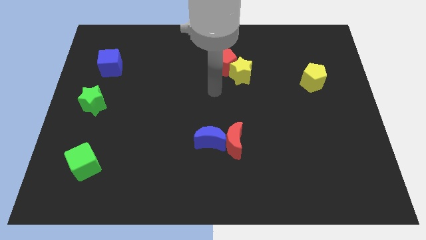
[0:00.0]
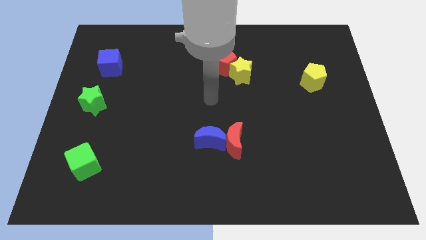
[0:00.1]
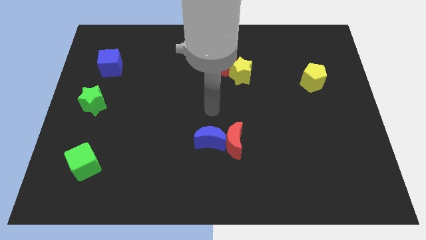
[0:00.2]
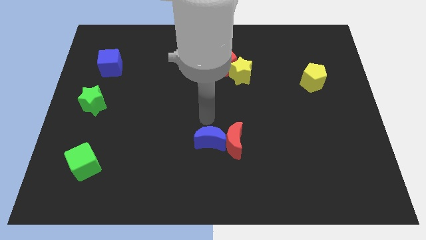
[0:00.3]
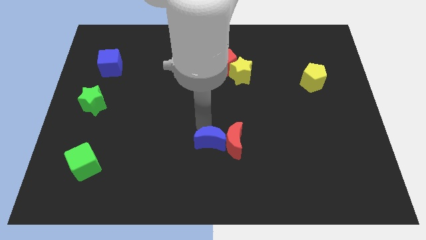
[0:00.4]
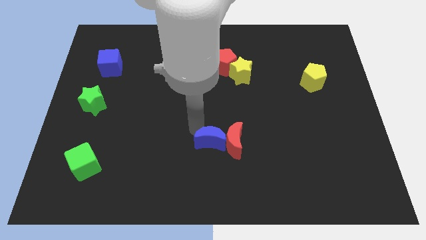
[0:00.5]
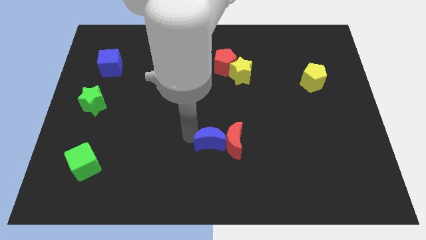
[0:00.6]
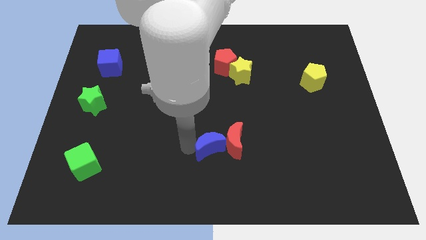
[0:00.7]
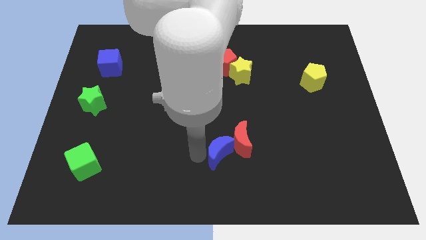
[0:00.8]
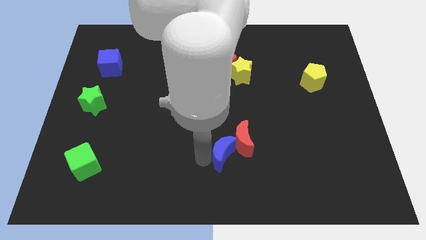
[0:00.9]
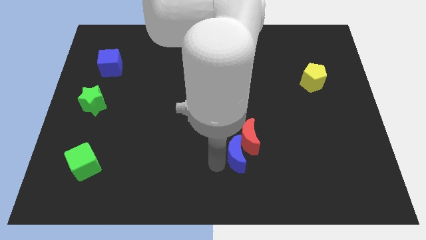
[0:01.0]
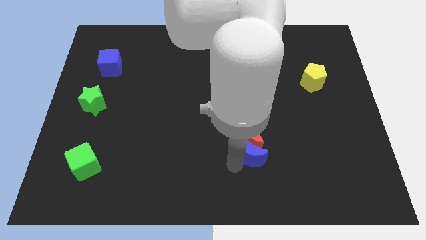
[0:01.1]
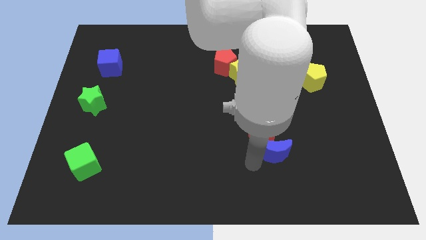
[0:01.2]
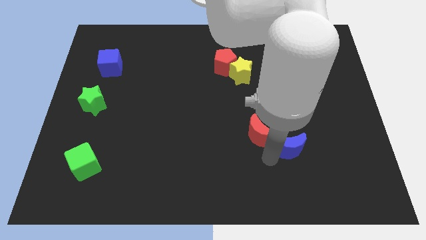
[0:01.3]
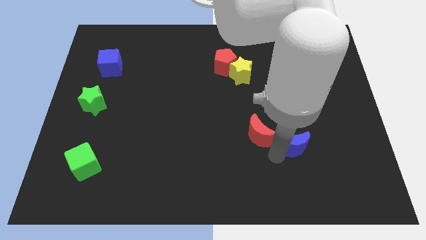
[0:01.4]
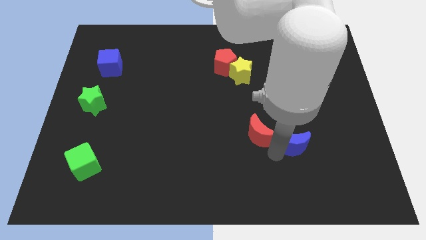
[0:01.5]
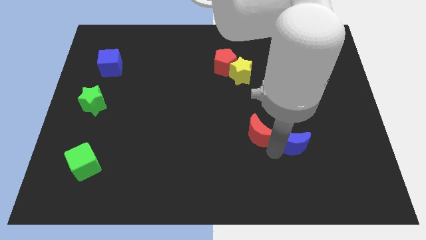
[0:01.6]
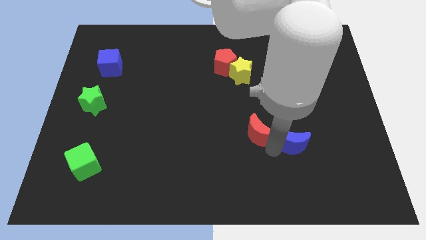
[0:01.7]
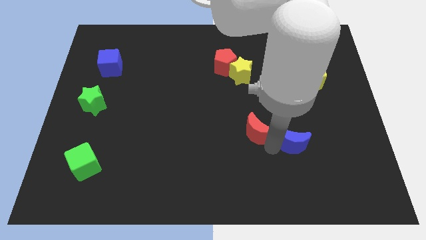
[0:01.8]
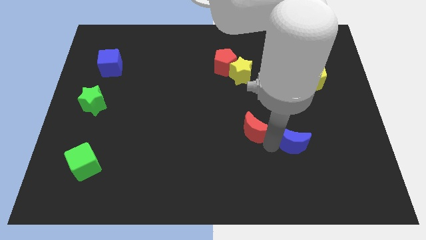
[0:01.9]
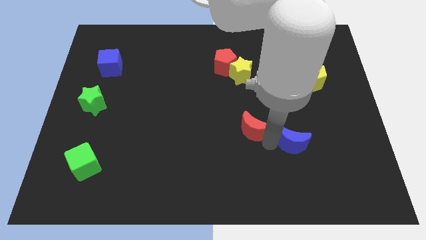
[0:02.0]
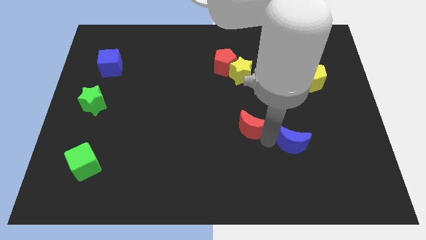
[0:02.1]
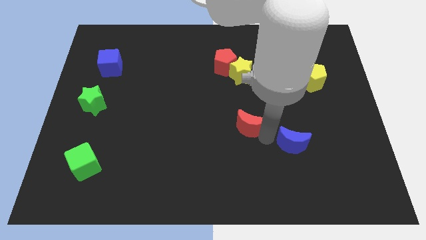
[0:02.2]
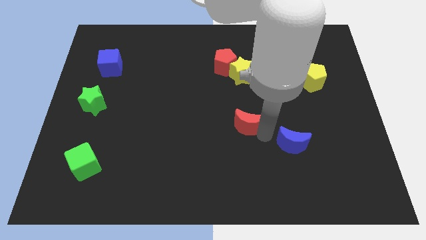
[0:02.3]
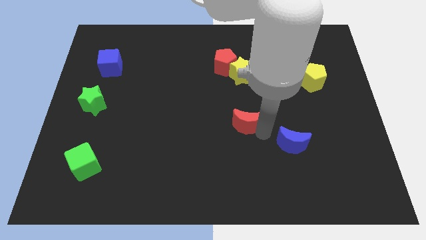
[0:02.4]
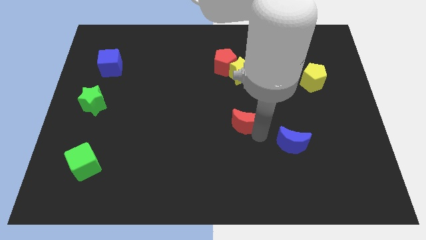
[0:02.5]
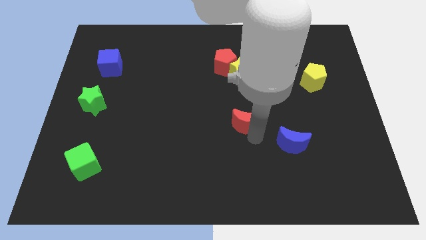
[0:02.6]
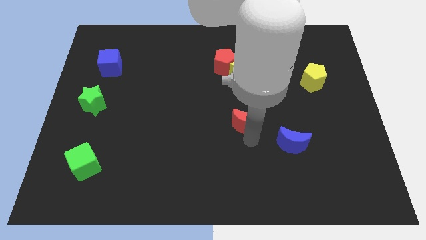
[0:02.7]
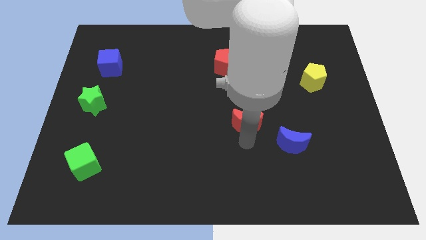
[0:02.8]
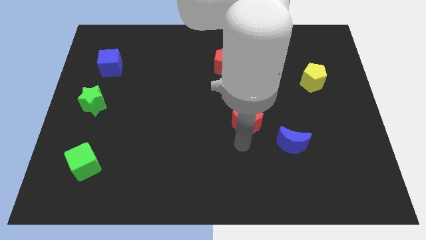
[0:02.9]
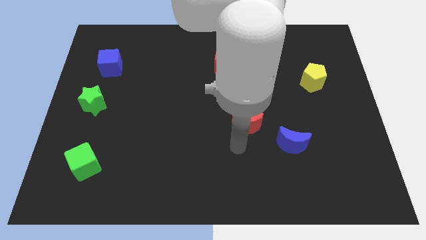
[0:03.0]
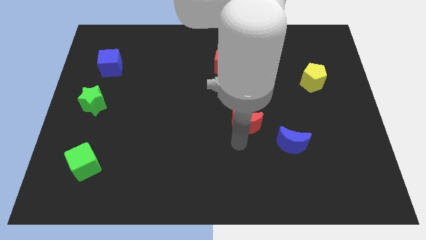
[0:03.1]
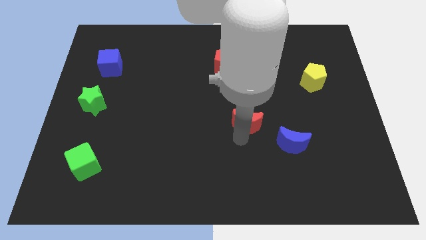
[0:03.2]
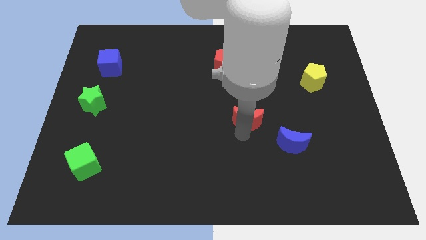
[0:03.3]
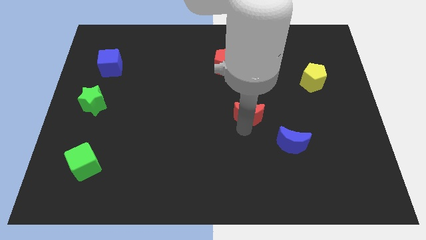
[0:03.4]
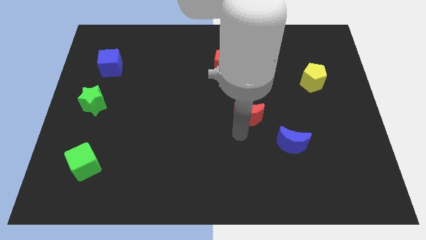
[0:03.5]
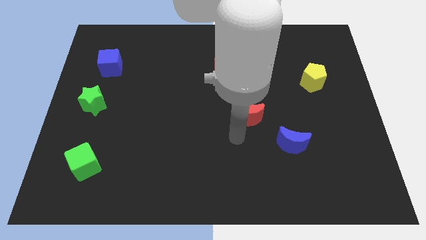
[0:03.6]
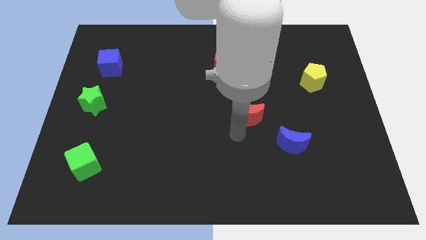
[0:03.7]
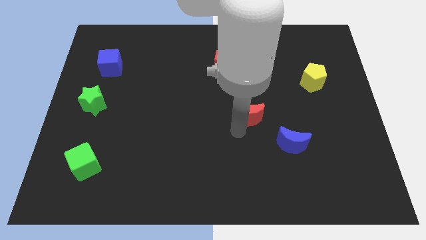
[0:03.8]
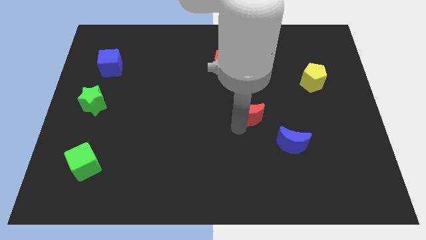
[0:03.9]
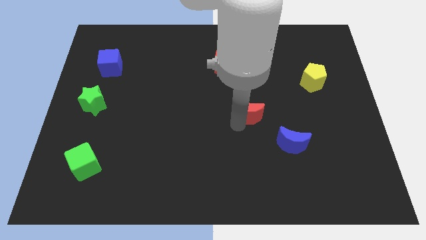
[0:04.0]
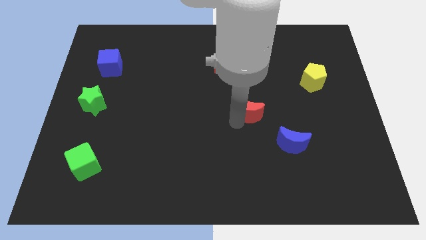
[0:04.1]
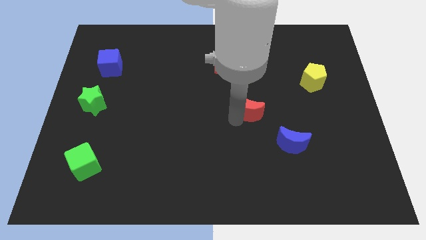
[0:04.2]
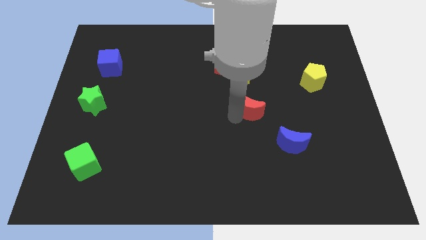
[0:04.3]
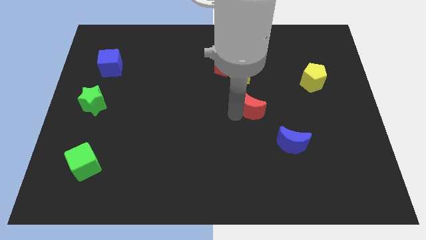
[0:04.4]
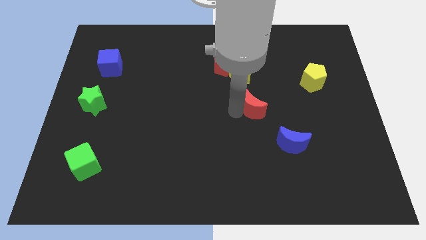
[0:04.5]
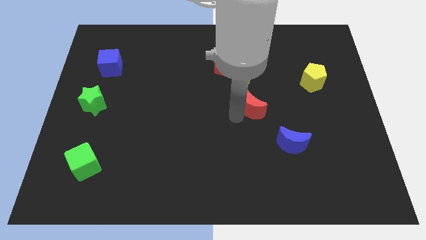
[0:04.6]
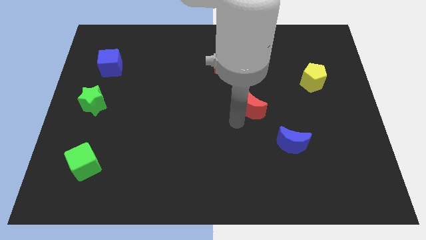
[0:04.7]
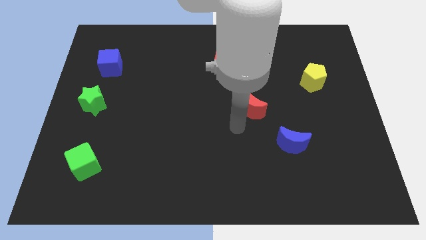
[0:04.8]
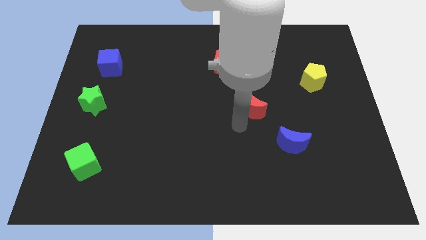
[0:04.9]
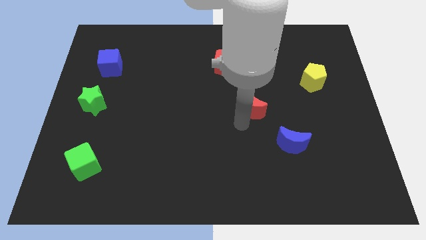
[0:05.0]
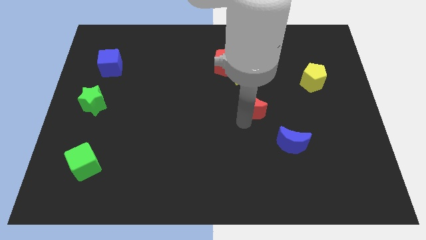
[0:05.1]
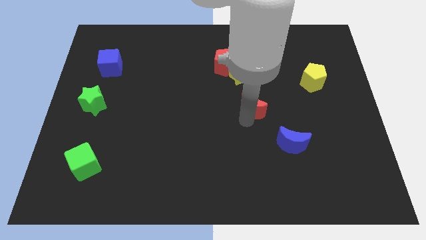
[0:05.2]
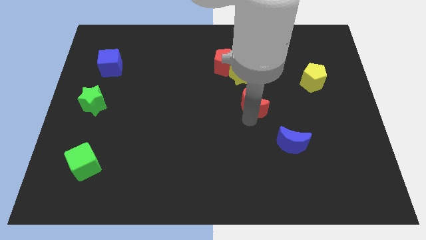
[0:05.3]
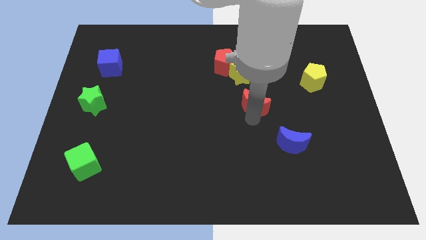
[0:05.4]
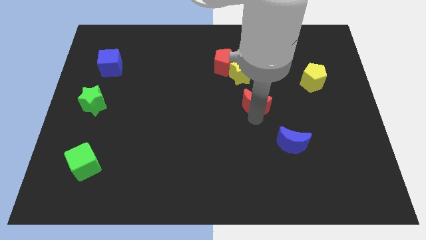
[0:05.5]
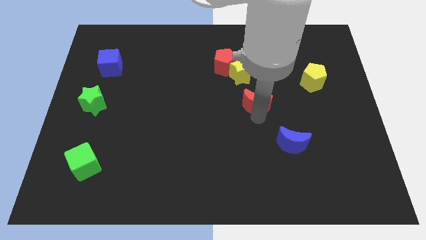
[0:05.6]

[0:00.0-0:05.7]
put the red moon diagonally down and to the right of the yellow star

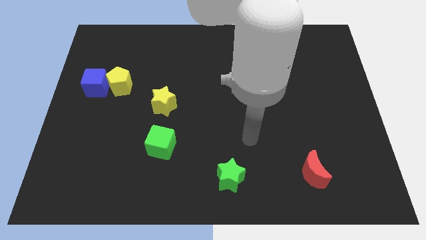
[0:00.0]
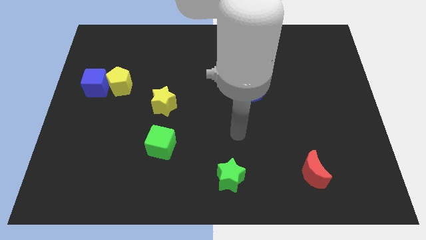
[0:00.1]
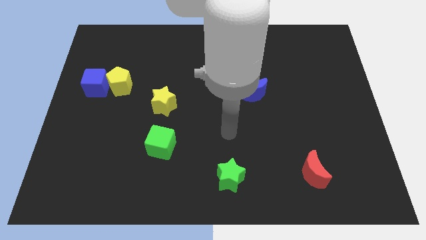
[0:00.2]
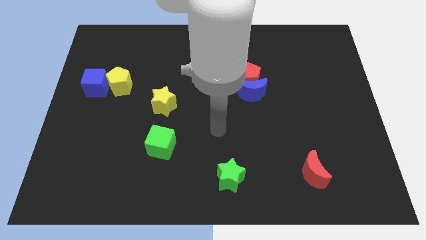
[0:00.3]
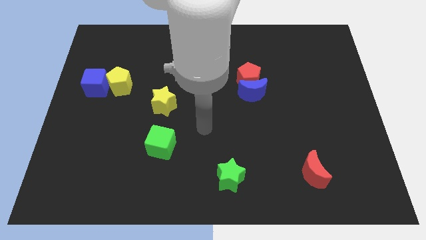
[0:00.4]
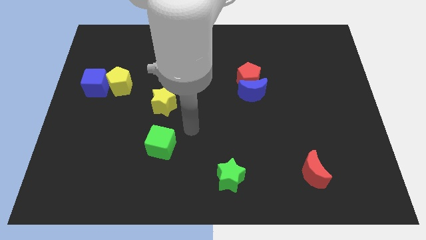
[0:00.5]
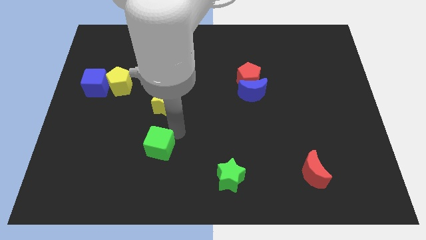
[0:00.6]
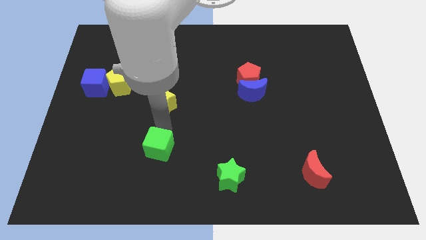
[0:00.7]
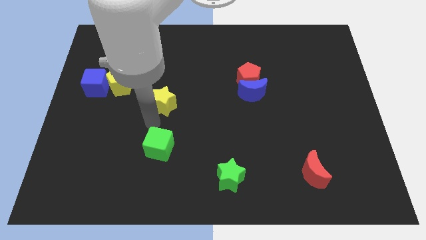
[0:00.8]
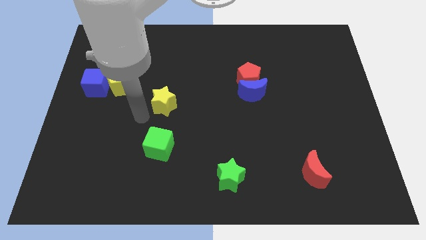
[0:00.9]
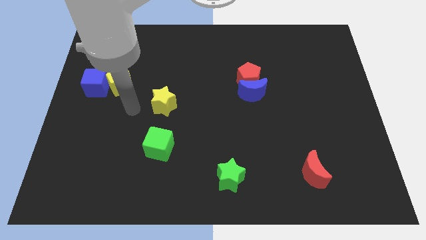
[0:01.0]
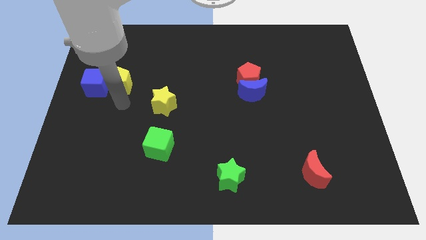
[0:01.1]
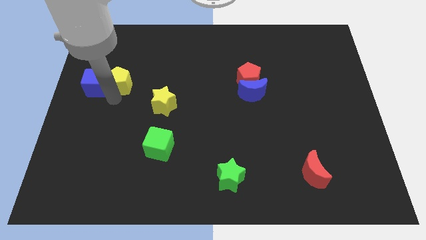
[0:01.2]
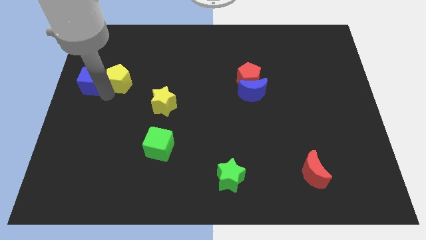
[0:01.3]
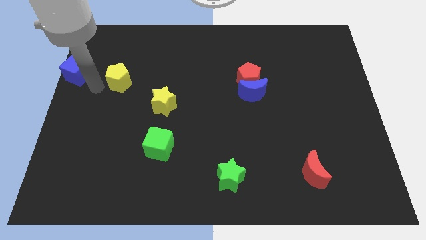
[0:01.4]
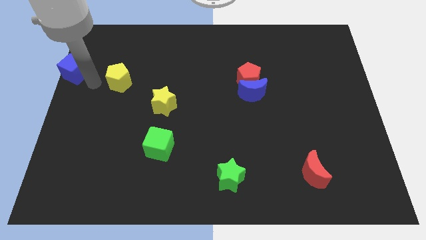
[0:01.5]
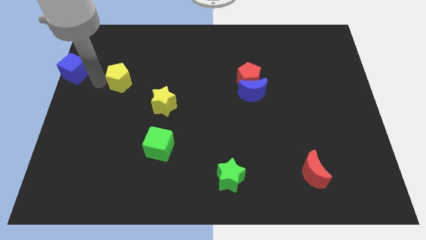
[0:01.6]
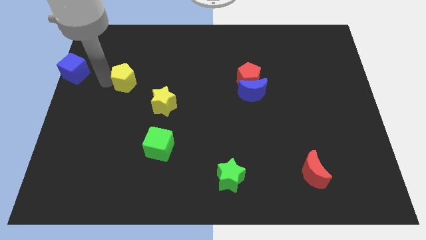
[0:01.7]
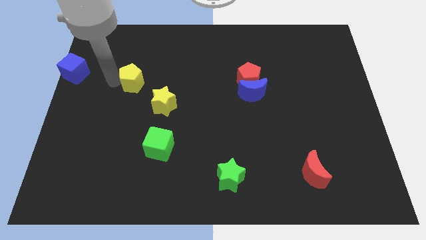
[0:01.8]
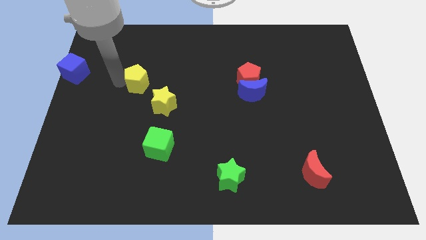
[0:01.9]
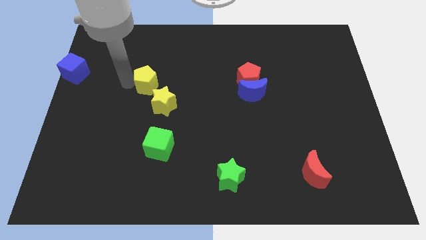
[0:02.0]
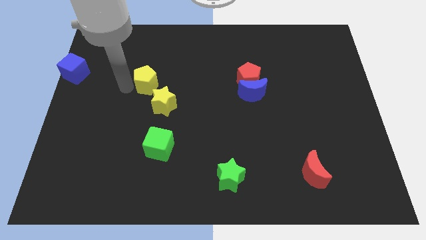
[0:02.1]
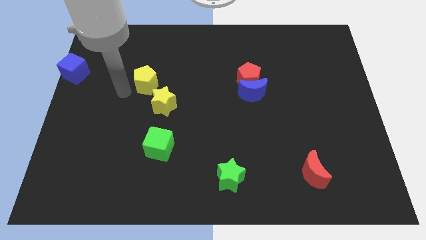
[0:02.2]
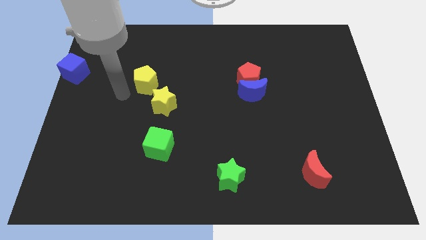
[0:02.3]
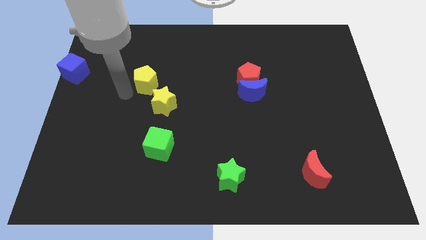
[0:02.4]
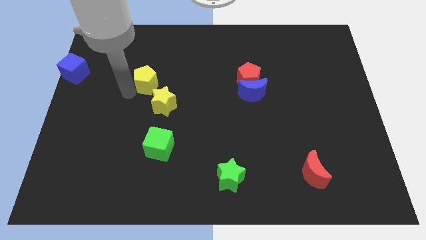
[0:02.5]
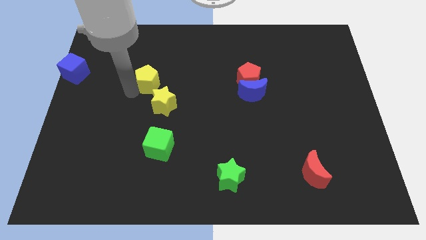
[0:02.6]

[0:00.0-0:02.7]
put the yellow pentagon above the yellow star
